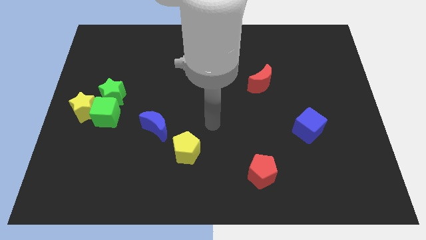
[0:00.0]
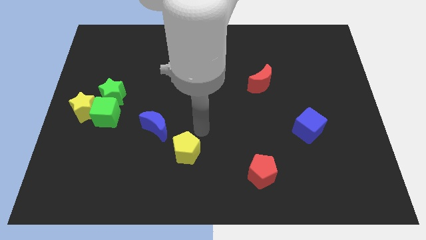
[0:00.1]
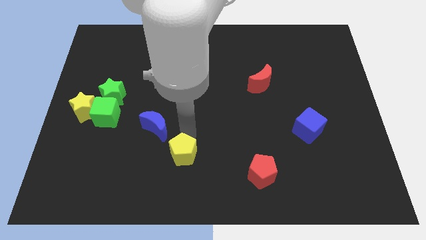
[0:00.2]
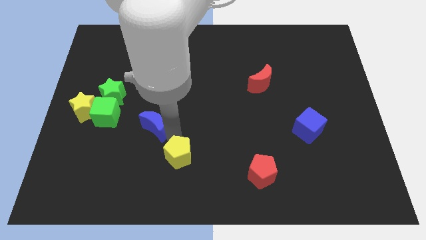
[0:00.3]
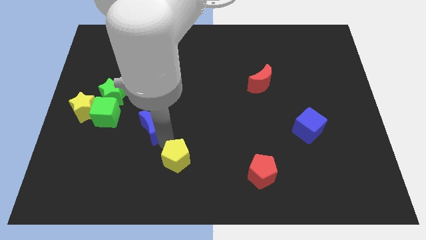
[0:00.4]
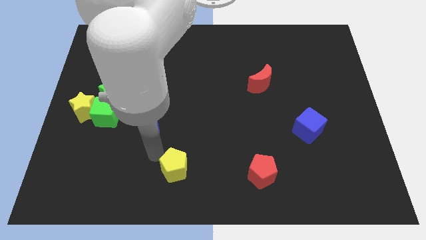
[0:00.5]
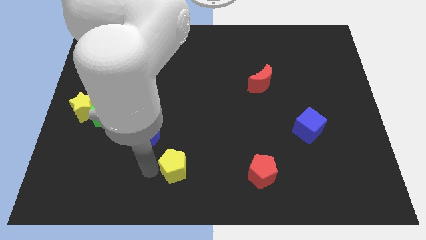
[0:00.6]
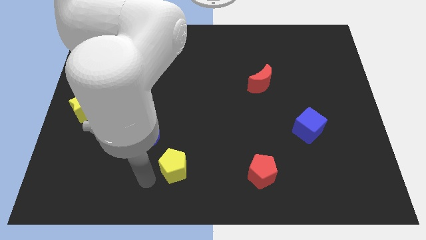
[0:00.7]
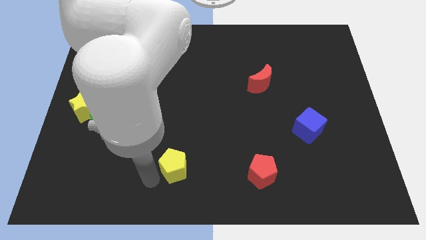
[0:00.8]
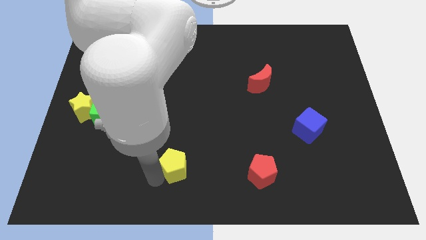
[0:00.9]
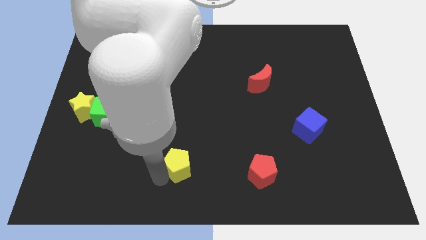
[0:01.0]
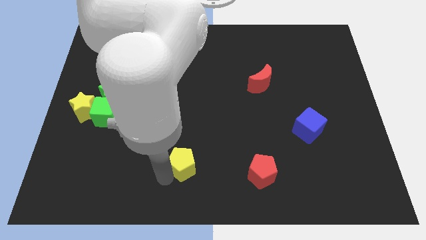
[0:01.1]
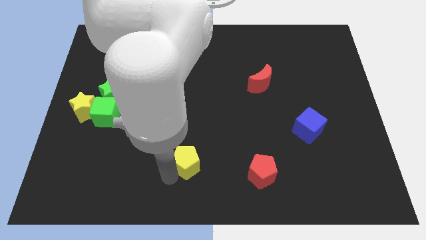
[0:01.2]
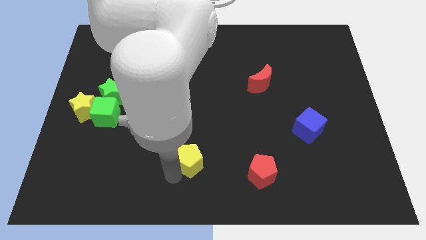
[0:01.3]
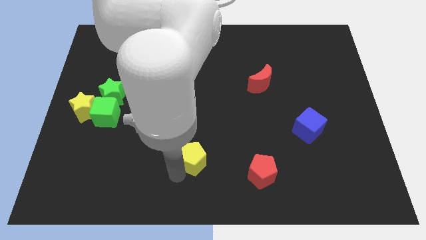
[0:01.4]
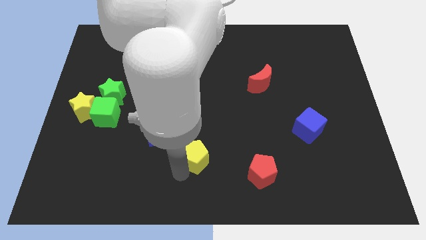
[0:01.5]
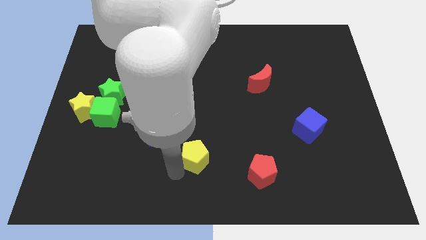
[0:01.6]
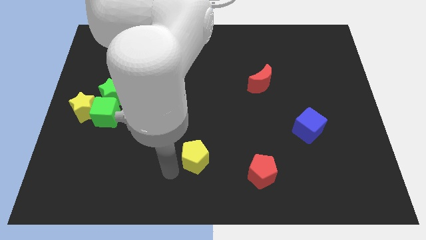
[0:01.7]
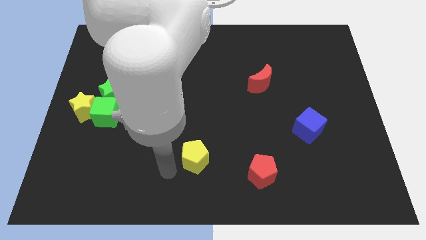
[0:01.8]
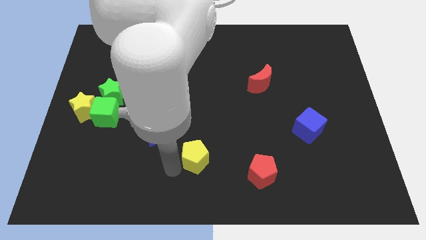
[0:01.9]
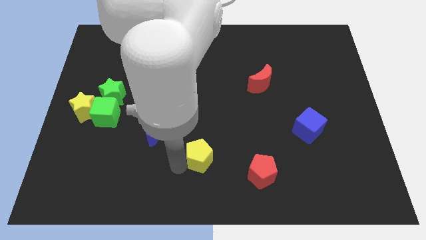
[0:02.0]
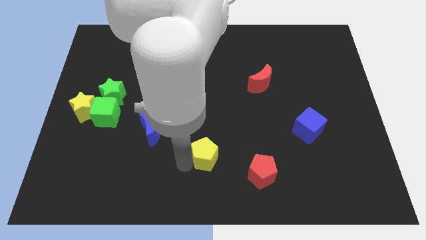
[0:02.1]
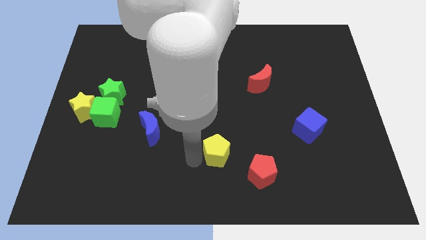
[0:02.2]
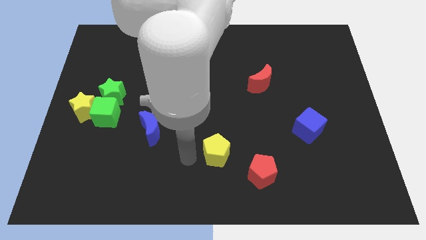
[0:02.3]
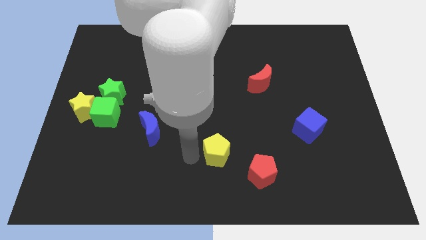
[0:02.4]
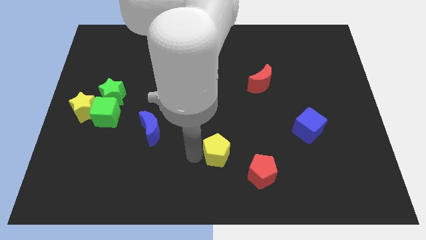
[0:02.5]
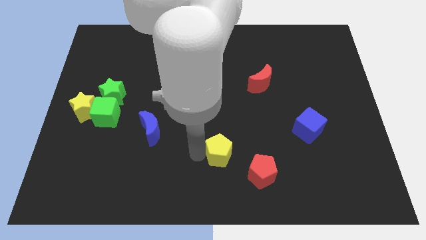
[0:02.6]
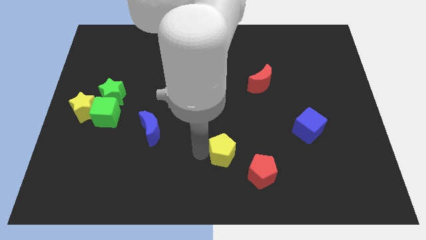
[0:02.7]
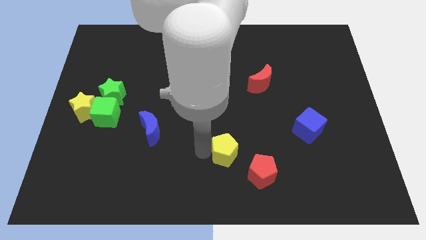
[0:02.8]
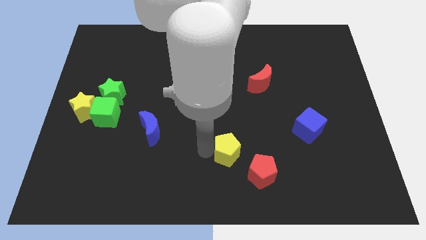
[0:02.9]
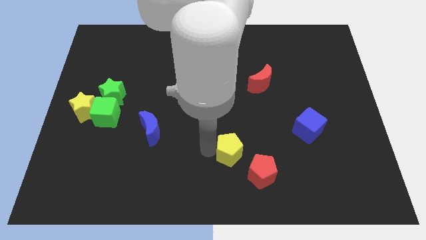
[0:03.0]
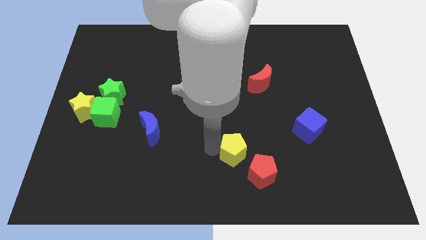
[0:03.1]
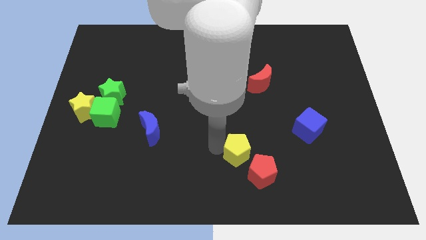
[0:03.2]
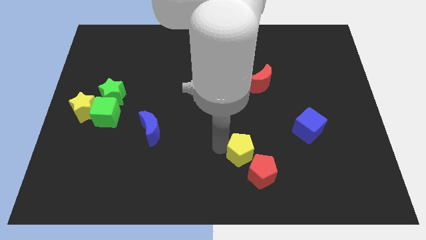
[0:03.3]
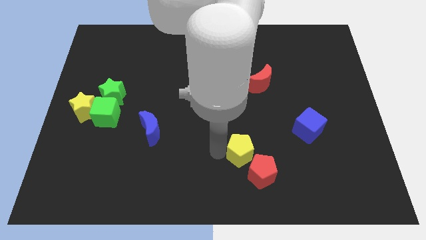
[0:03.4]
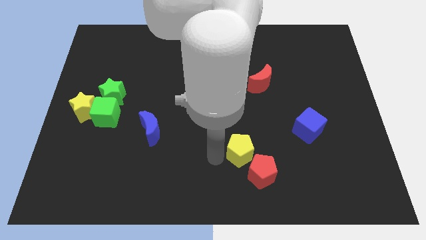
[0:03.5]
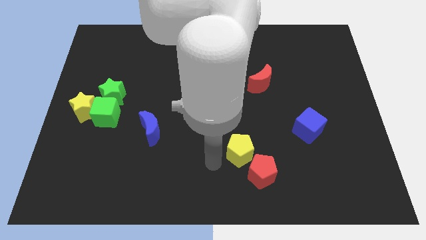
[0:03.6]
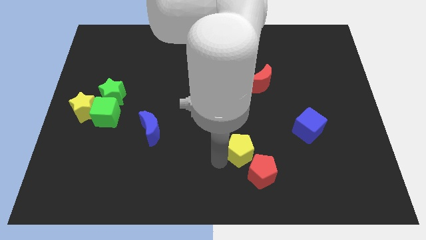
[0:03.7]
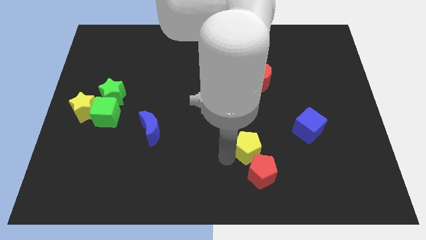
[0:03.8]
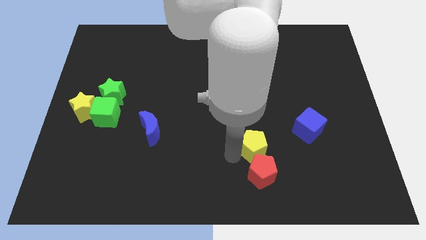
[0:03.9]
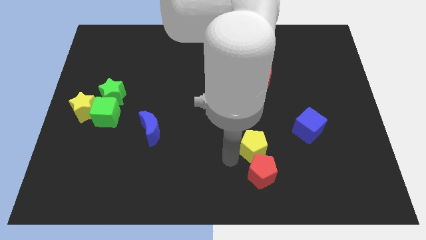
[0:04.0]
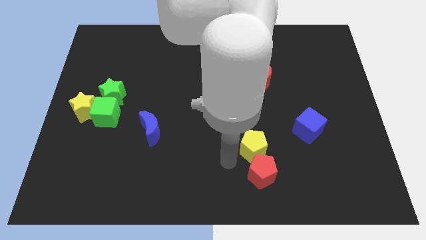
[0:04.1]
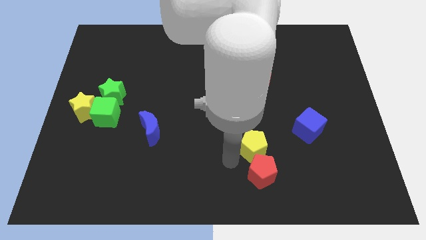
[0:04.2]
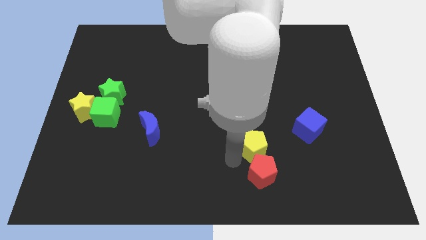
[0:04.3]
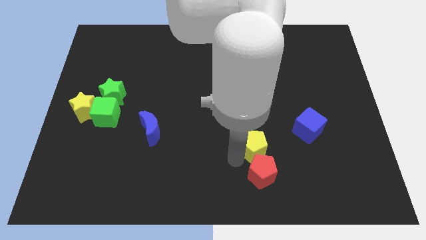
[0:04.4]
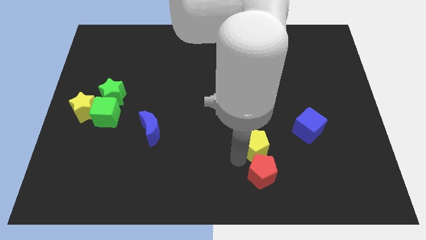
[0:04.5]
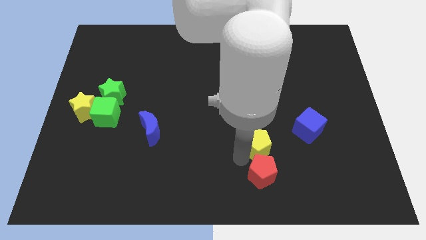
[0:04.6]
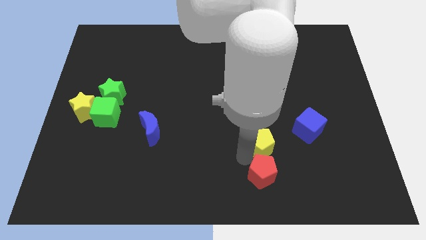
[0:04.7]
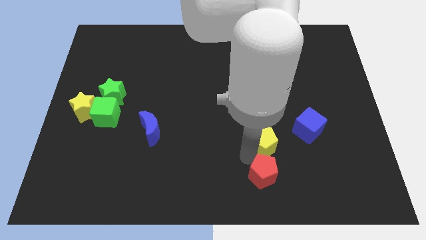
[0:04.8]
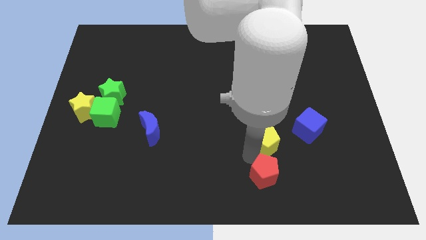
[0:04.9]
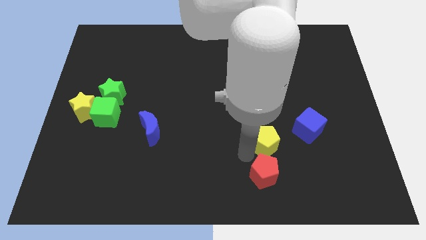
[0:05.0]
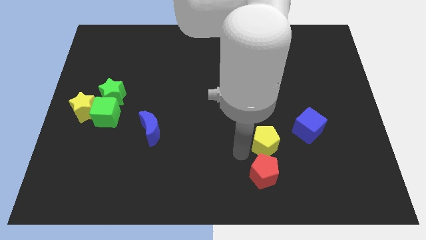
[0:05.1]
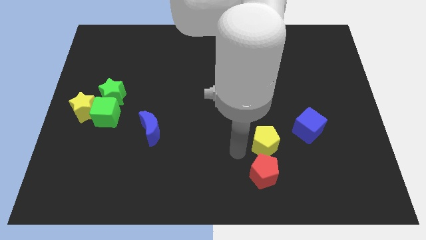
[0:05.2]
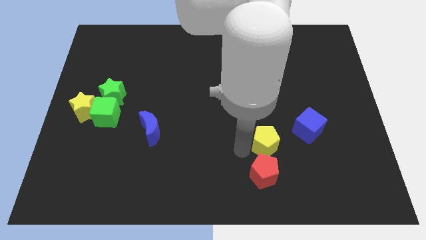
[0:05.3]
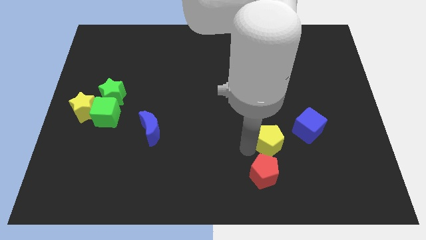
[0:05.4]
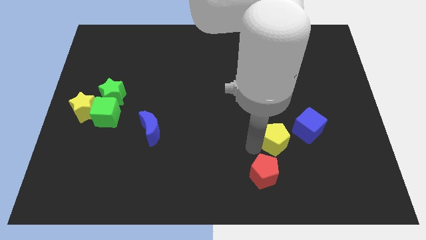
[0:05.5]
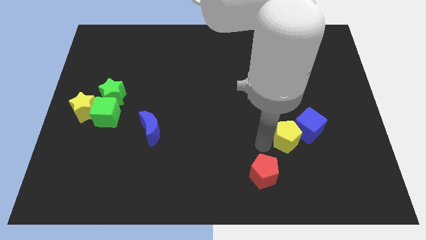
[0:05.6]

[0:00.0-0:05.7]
push the yellow pentagon to the blue cube

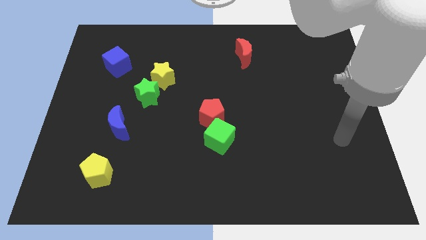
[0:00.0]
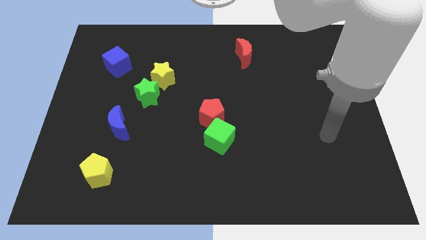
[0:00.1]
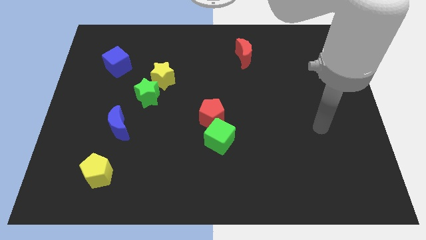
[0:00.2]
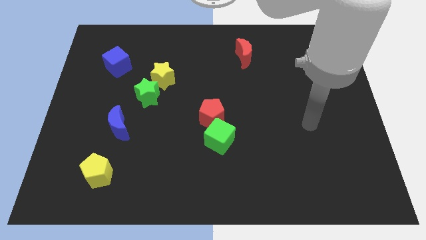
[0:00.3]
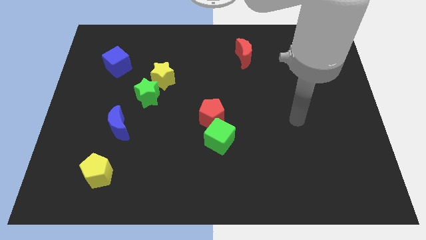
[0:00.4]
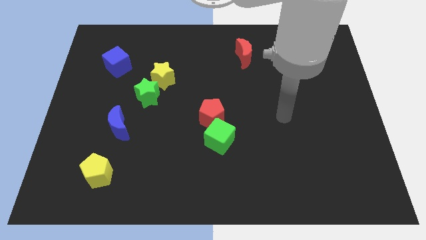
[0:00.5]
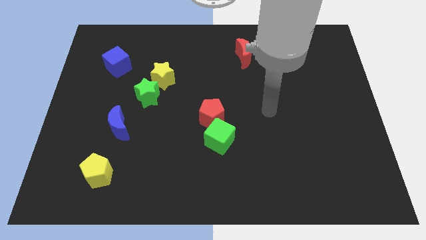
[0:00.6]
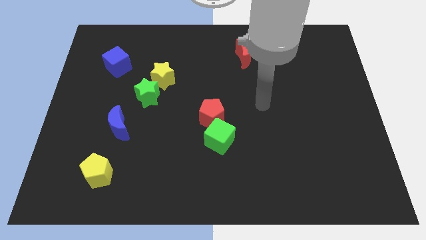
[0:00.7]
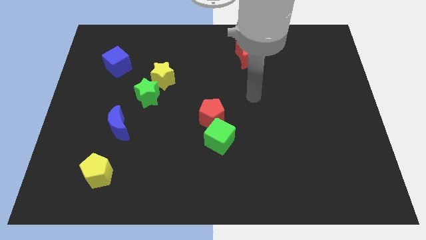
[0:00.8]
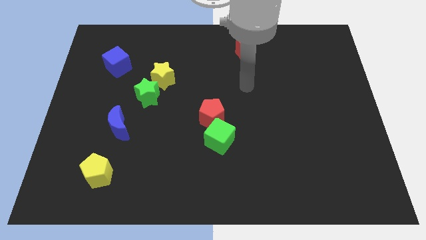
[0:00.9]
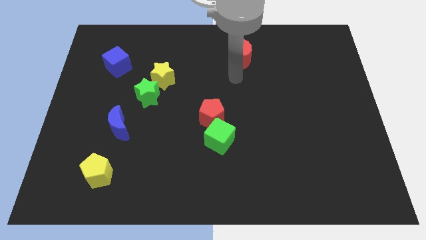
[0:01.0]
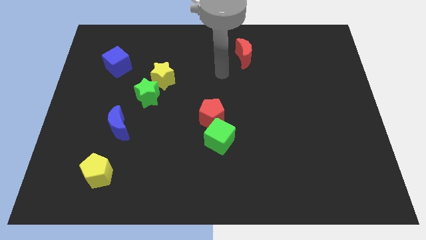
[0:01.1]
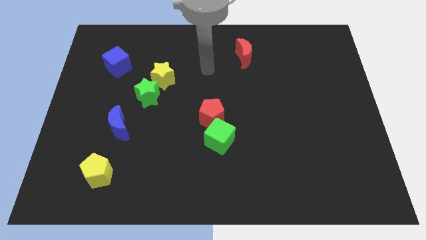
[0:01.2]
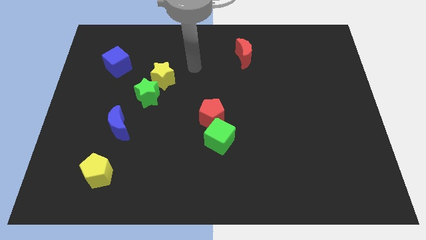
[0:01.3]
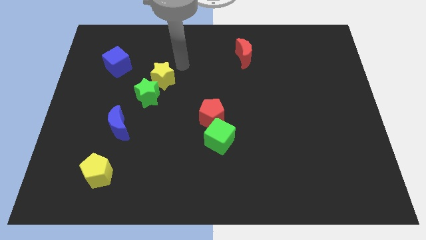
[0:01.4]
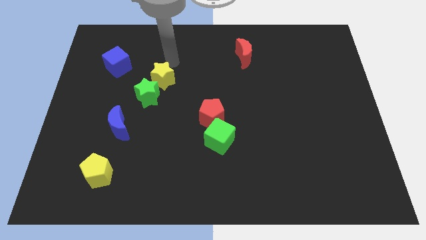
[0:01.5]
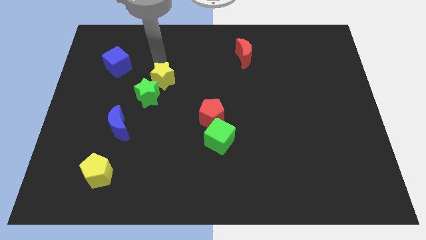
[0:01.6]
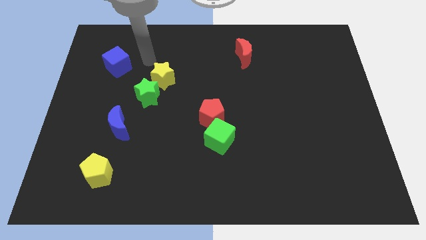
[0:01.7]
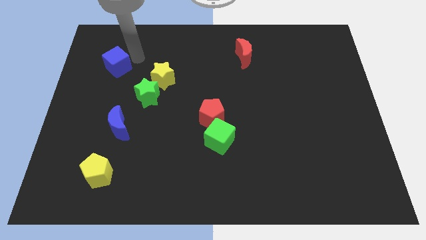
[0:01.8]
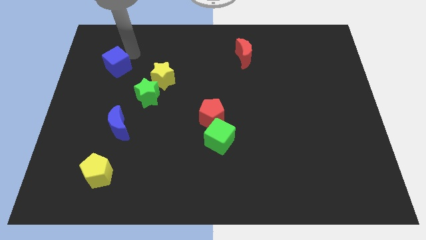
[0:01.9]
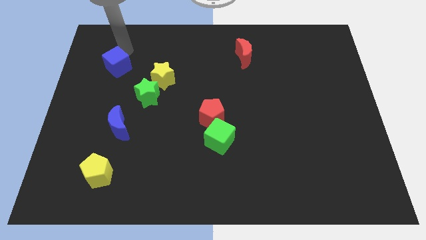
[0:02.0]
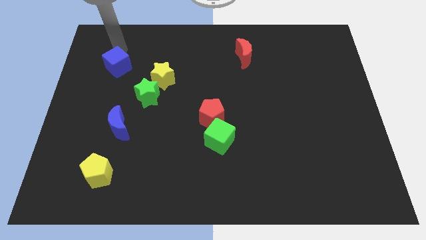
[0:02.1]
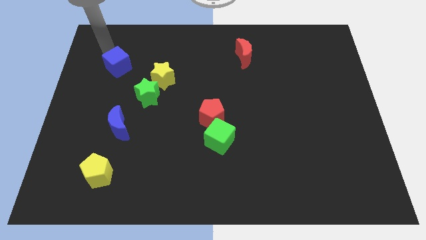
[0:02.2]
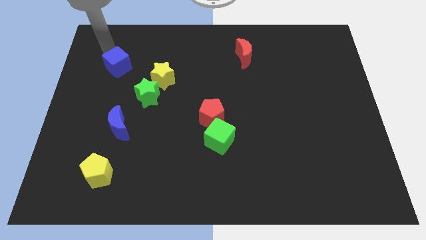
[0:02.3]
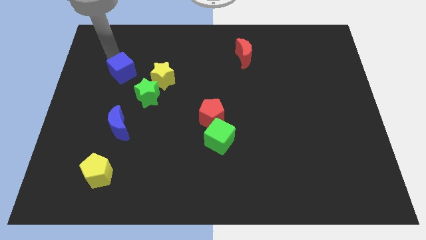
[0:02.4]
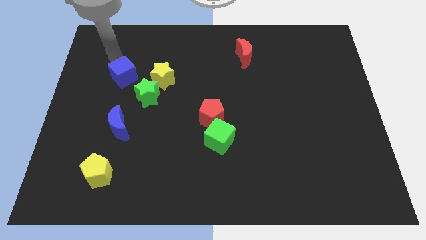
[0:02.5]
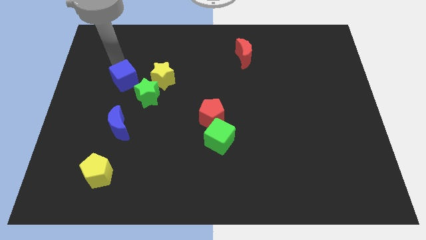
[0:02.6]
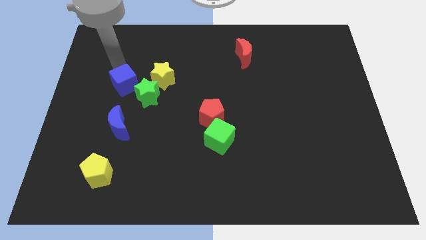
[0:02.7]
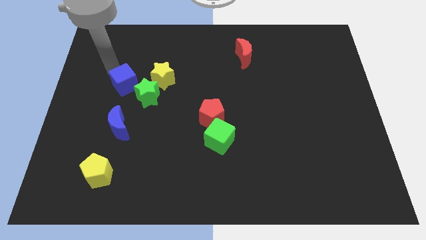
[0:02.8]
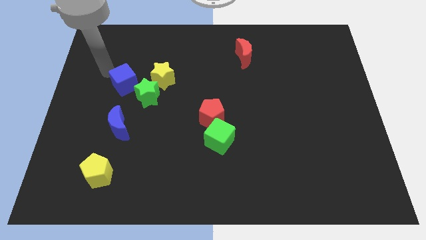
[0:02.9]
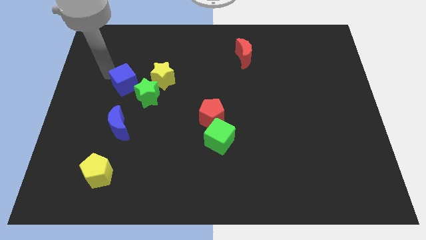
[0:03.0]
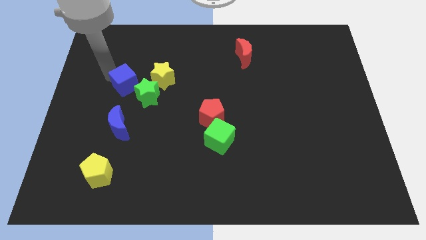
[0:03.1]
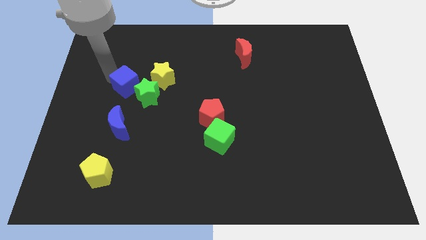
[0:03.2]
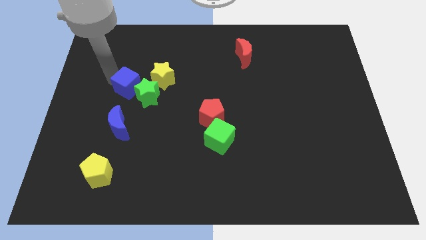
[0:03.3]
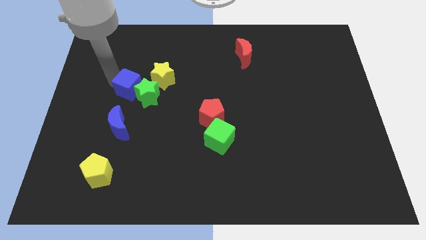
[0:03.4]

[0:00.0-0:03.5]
move the blue cube next to the green star
